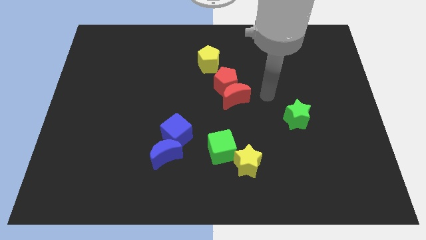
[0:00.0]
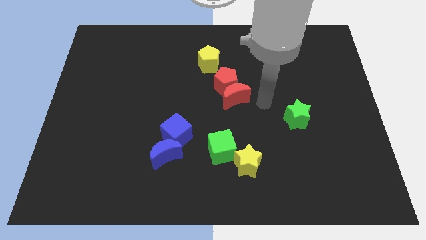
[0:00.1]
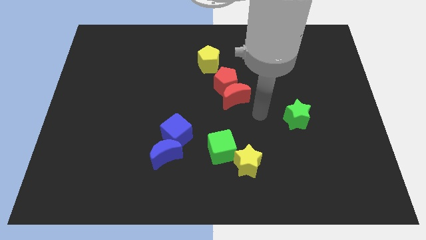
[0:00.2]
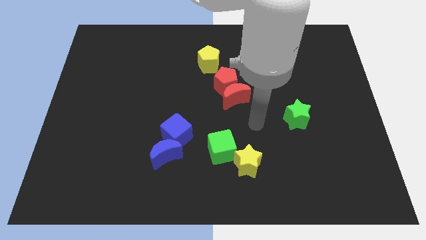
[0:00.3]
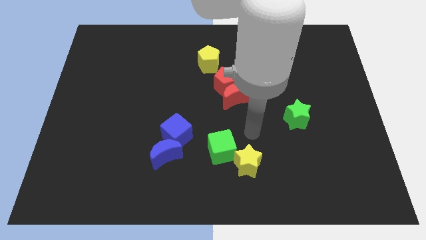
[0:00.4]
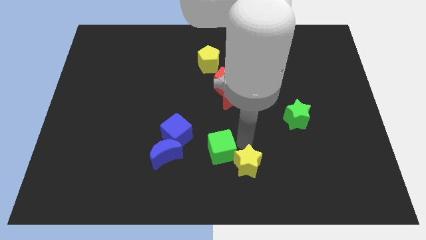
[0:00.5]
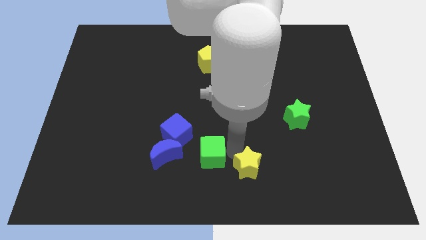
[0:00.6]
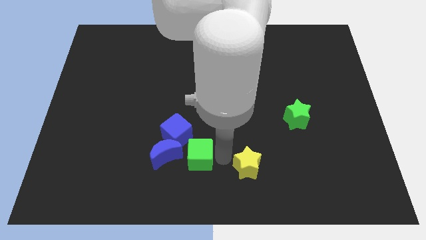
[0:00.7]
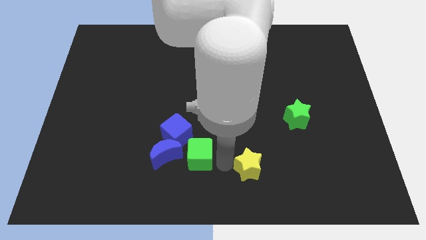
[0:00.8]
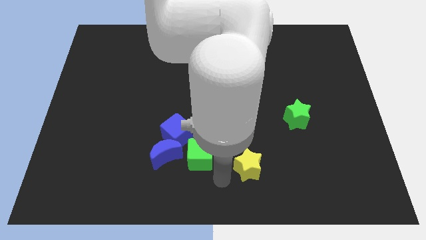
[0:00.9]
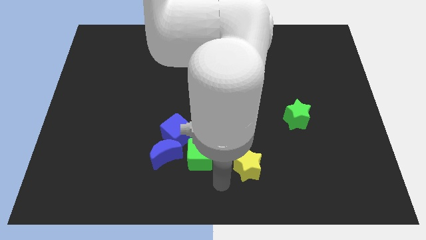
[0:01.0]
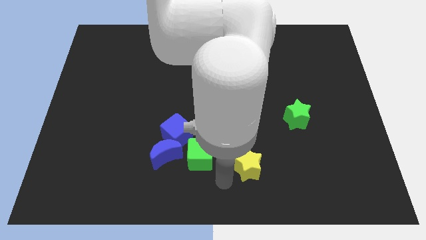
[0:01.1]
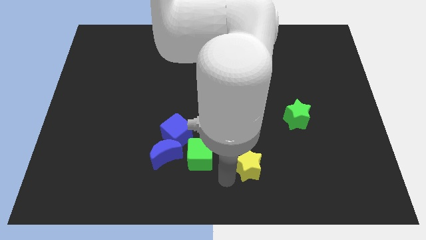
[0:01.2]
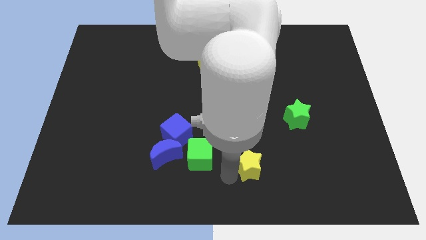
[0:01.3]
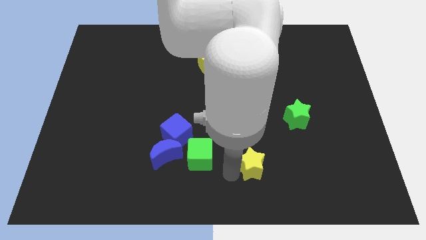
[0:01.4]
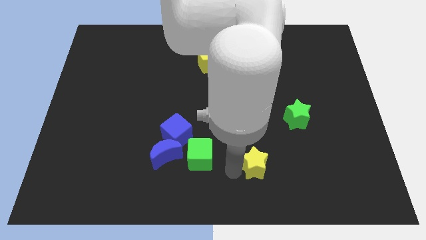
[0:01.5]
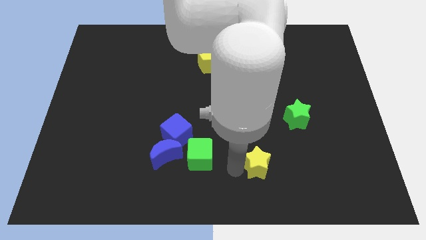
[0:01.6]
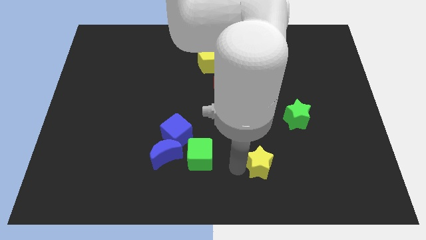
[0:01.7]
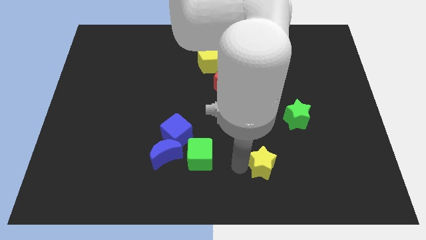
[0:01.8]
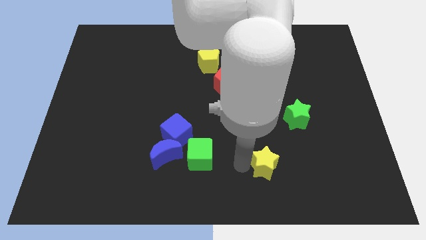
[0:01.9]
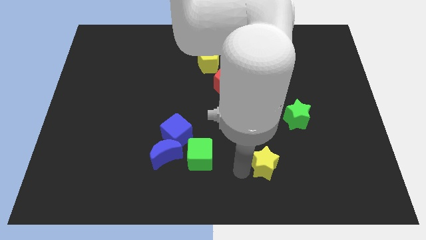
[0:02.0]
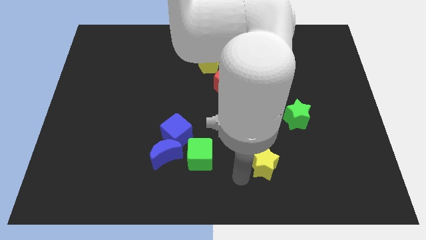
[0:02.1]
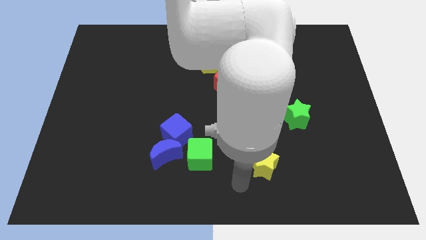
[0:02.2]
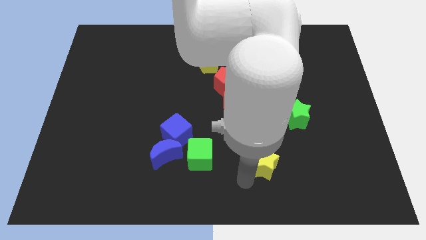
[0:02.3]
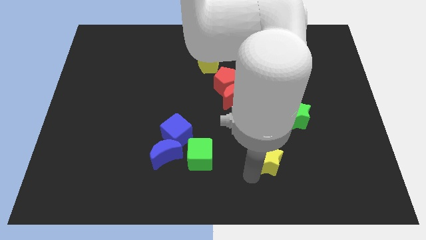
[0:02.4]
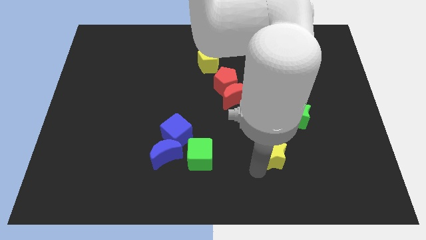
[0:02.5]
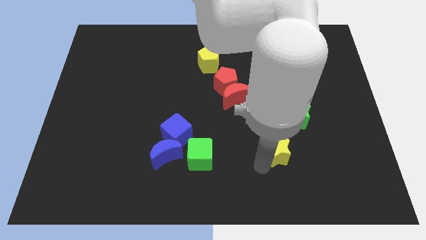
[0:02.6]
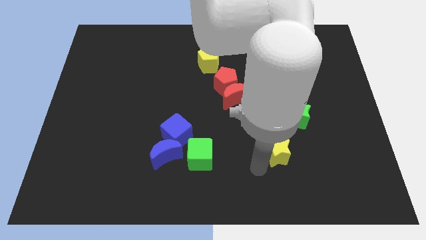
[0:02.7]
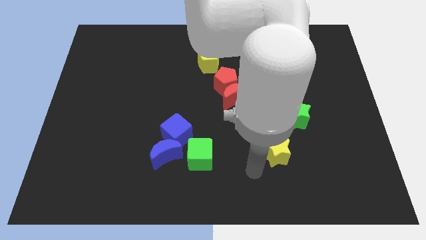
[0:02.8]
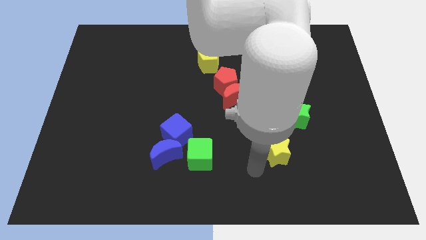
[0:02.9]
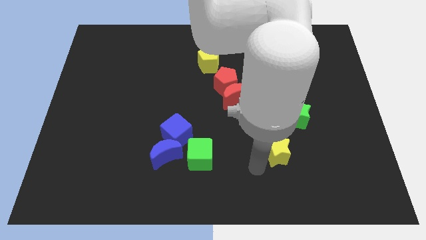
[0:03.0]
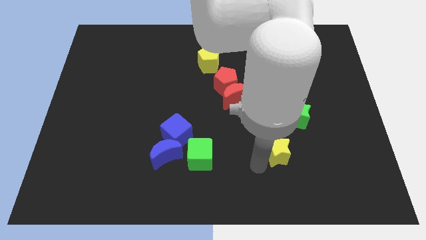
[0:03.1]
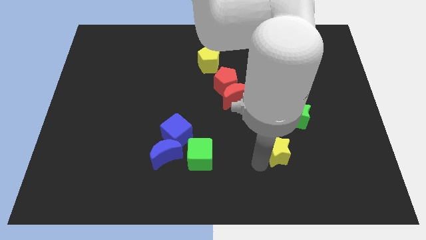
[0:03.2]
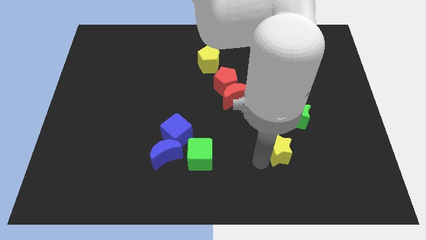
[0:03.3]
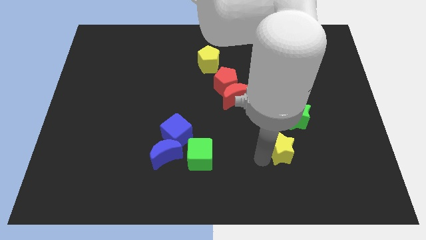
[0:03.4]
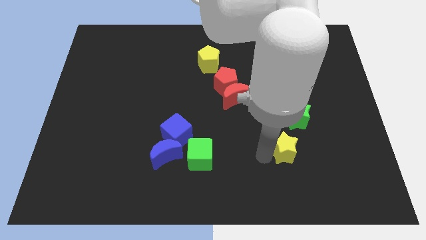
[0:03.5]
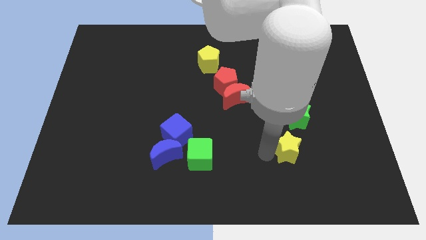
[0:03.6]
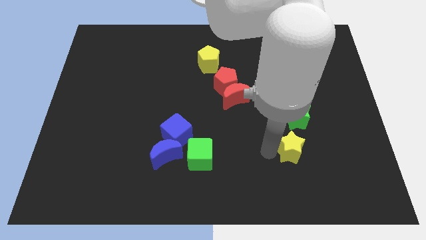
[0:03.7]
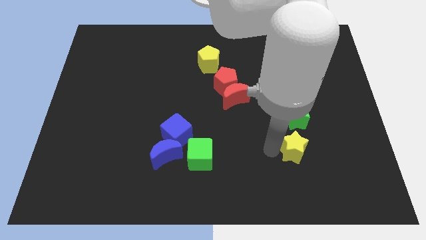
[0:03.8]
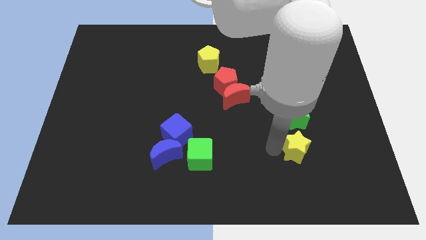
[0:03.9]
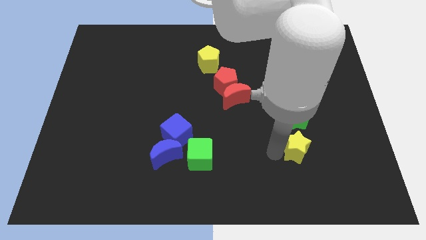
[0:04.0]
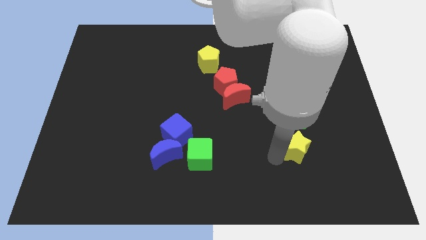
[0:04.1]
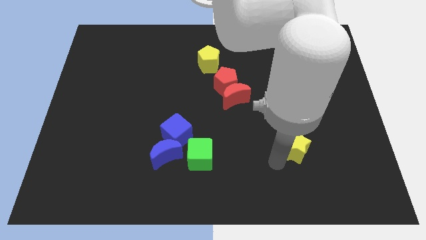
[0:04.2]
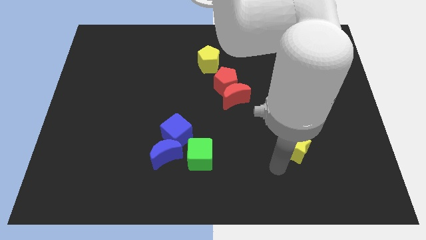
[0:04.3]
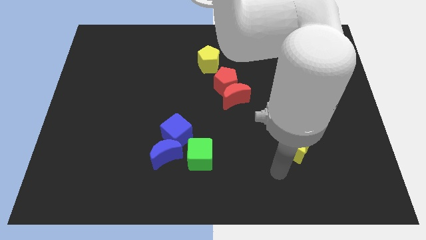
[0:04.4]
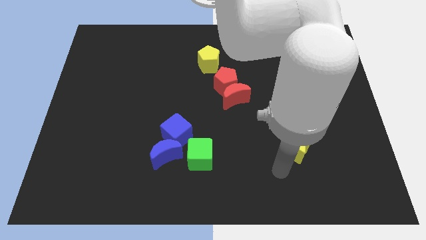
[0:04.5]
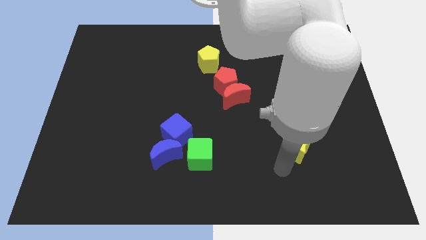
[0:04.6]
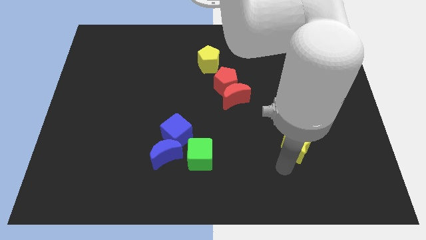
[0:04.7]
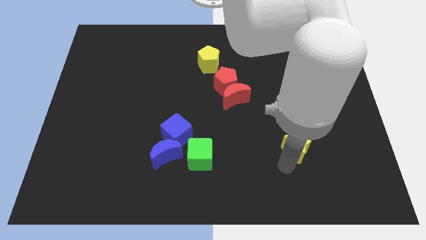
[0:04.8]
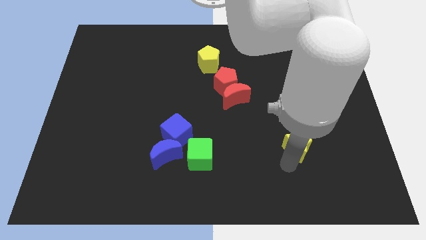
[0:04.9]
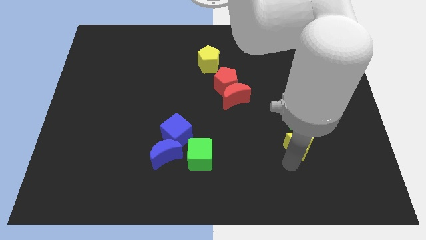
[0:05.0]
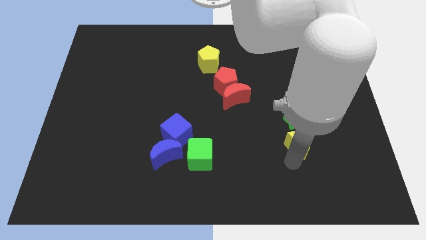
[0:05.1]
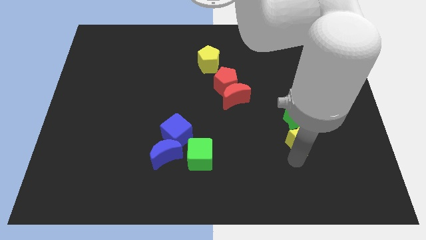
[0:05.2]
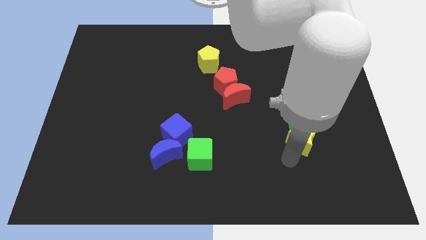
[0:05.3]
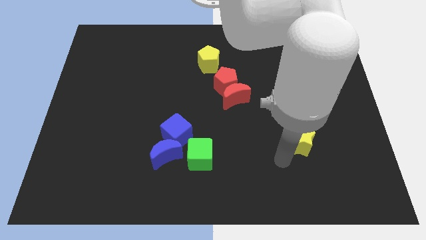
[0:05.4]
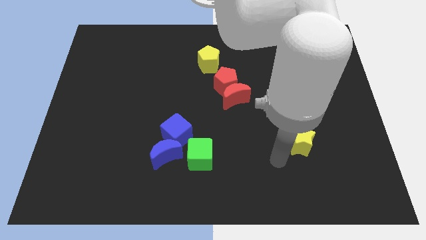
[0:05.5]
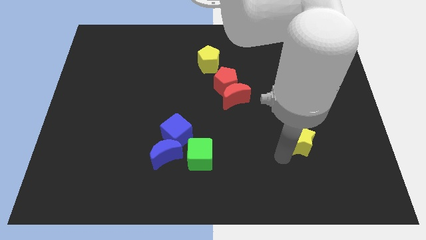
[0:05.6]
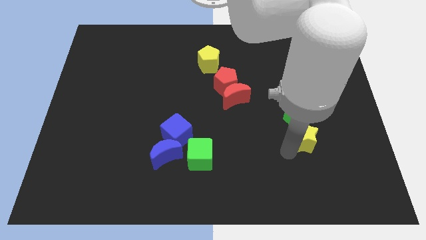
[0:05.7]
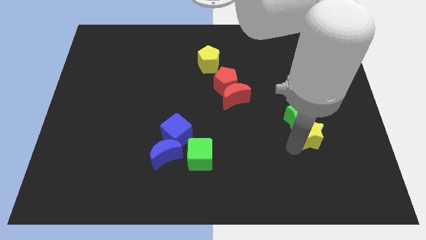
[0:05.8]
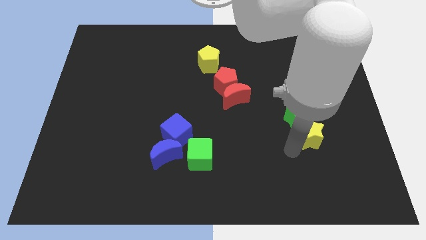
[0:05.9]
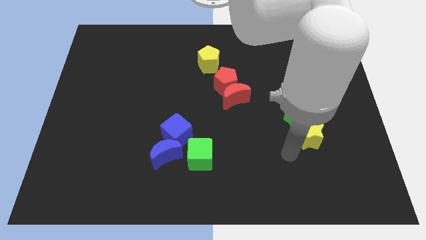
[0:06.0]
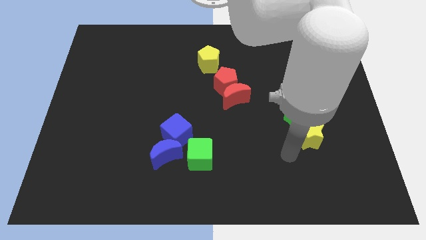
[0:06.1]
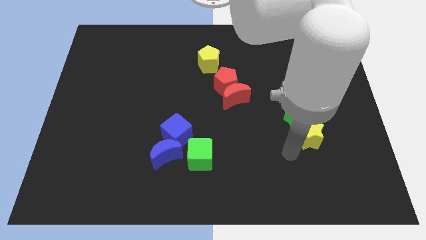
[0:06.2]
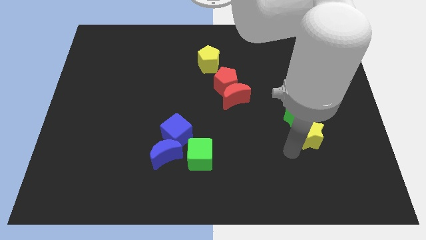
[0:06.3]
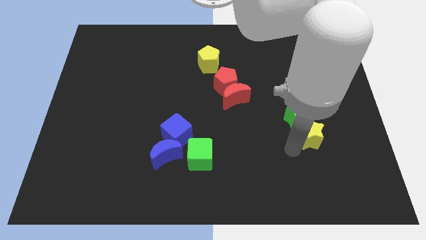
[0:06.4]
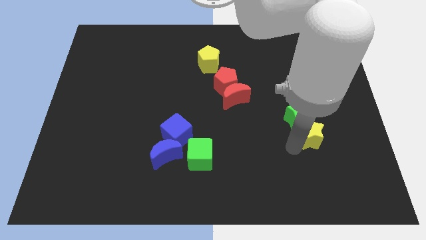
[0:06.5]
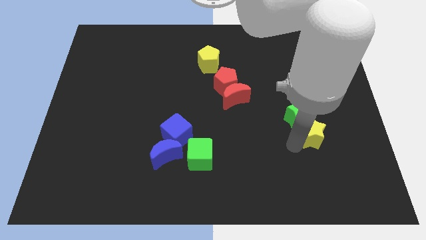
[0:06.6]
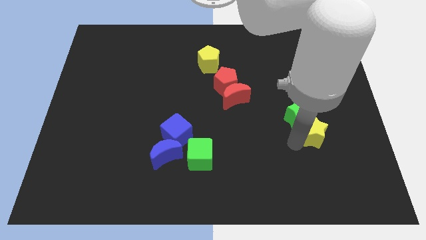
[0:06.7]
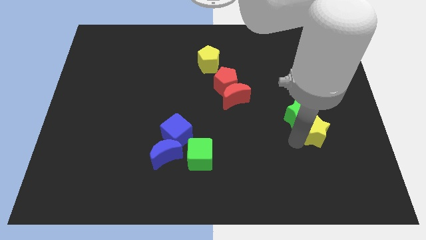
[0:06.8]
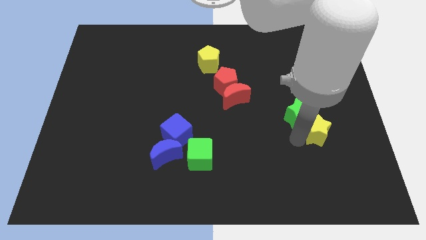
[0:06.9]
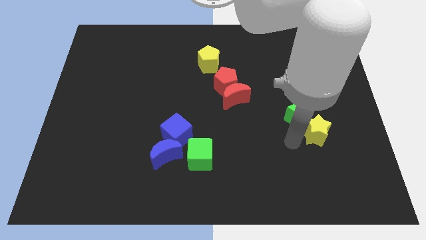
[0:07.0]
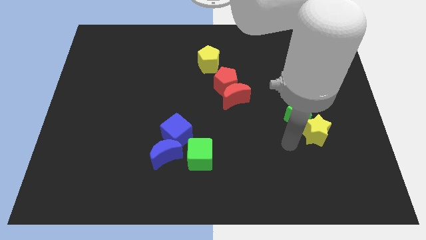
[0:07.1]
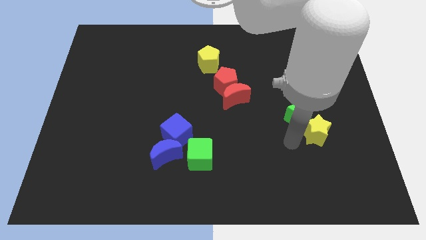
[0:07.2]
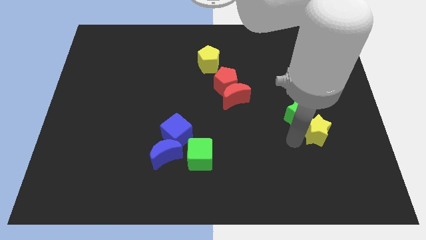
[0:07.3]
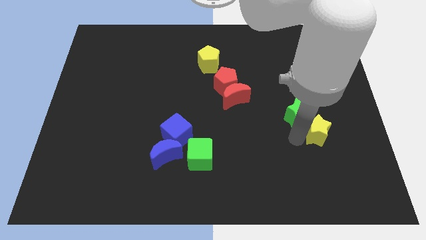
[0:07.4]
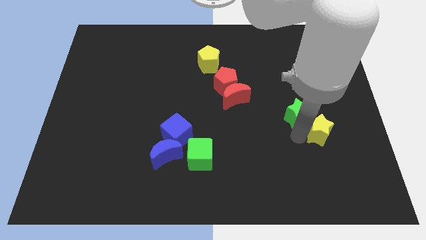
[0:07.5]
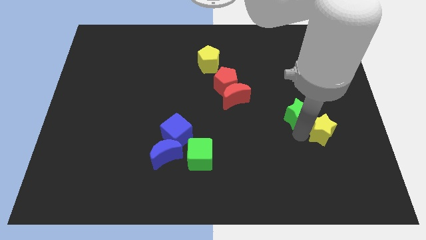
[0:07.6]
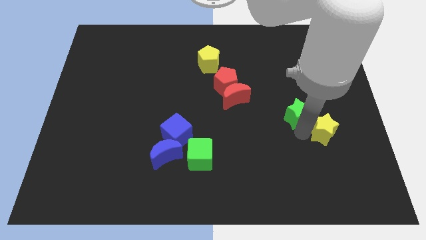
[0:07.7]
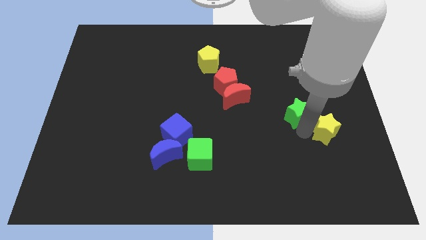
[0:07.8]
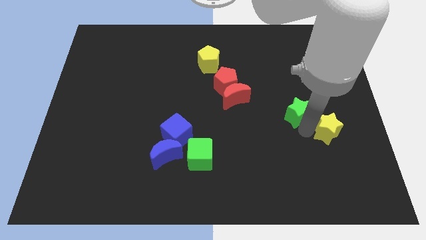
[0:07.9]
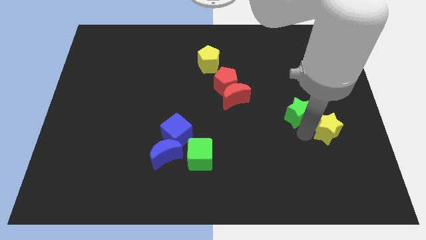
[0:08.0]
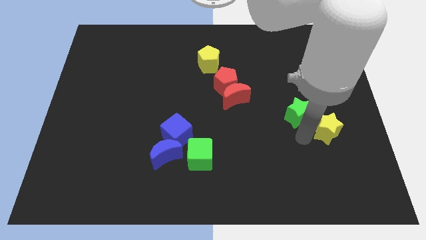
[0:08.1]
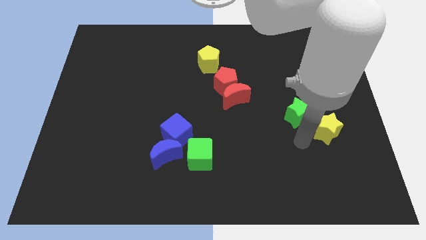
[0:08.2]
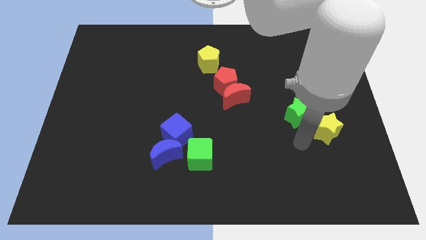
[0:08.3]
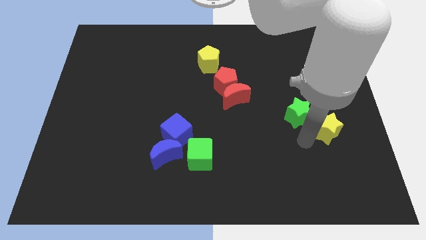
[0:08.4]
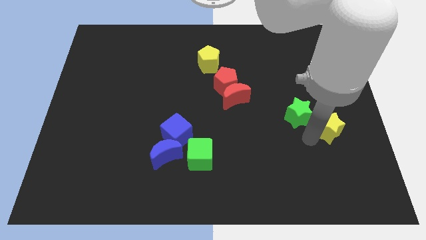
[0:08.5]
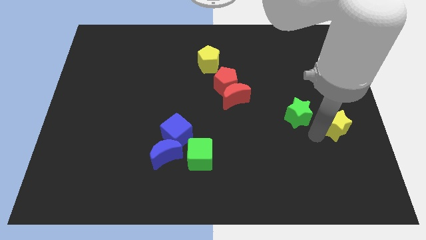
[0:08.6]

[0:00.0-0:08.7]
move the yellow star to the center right
